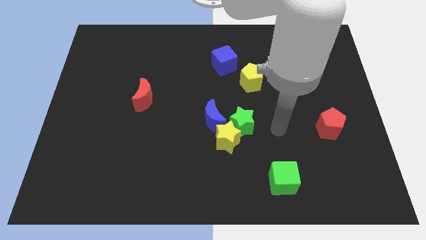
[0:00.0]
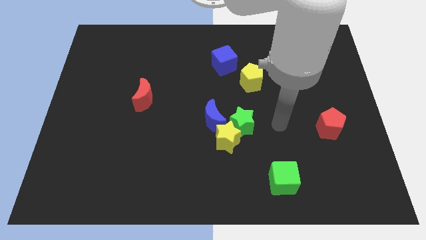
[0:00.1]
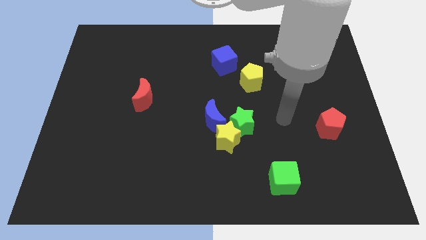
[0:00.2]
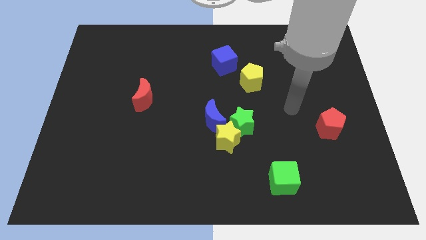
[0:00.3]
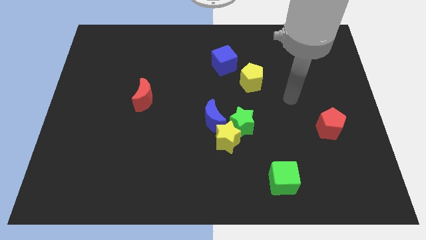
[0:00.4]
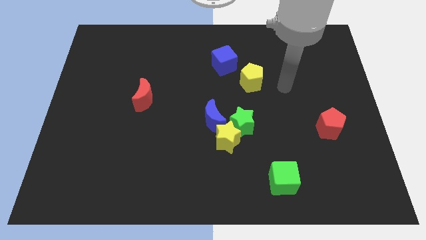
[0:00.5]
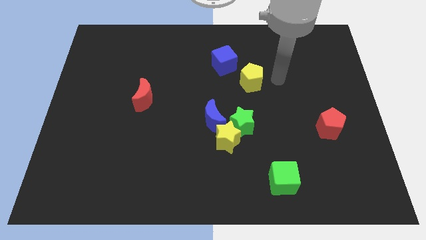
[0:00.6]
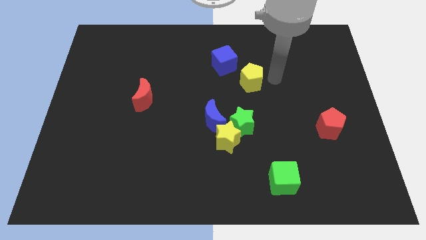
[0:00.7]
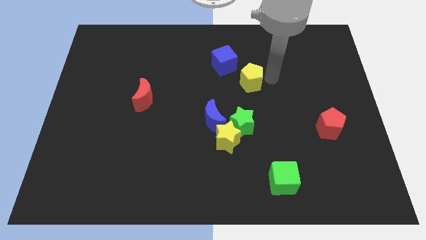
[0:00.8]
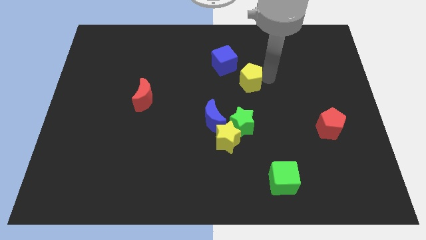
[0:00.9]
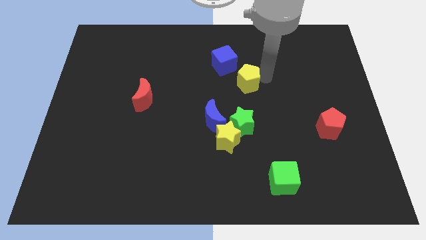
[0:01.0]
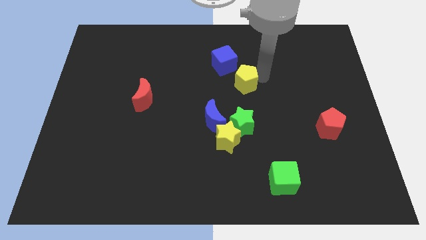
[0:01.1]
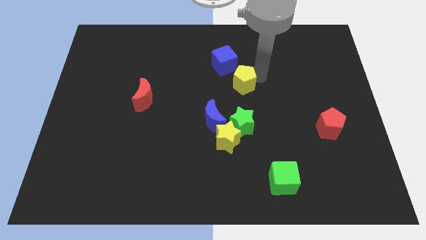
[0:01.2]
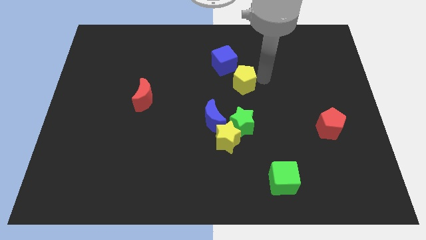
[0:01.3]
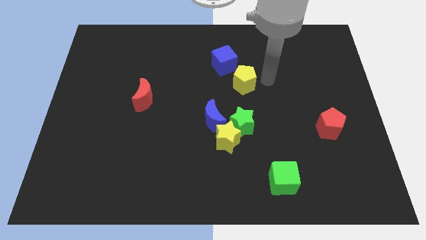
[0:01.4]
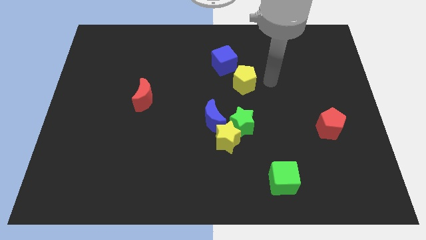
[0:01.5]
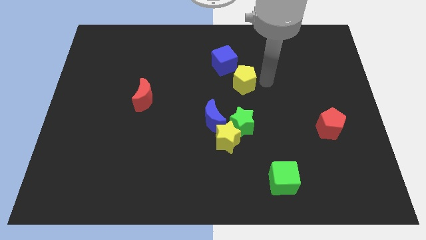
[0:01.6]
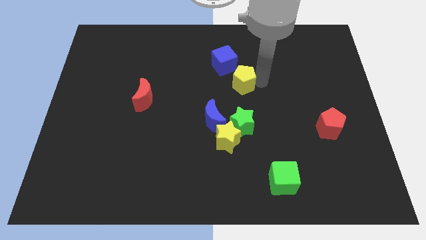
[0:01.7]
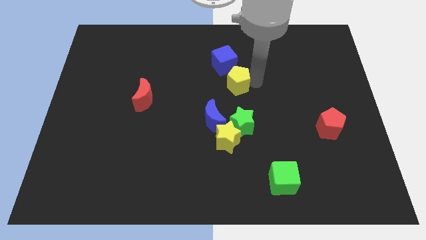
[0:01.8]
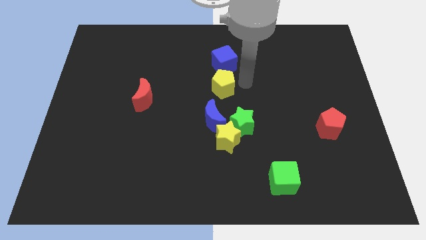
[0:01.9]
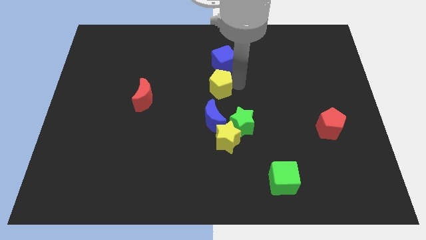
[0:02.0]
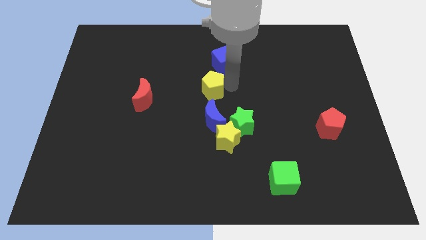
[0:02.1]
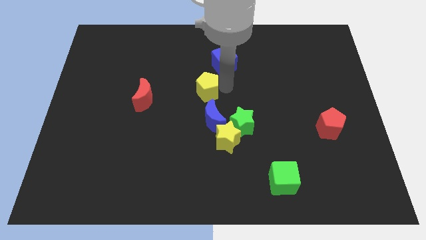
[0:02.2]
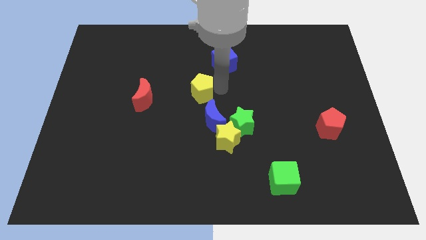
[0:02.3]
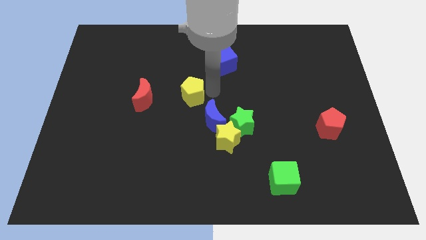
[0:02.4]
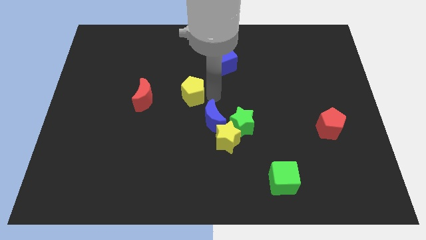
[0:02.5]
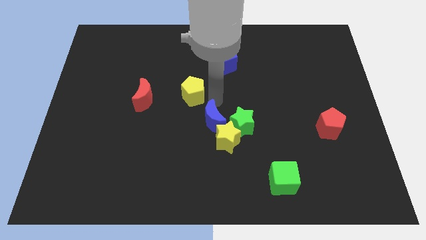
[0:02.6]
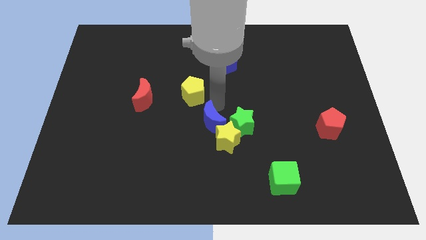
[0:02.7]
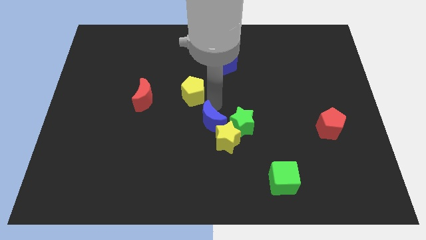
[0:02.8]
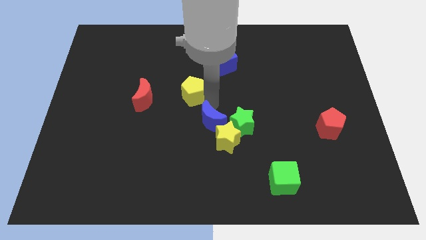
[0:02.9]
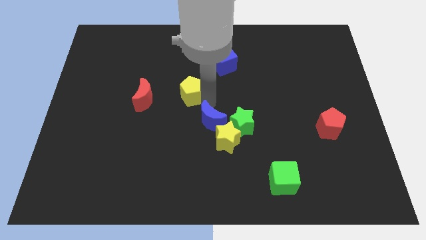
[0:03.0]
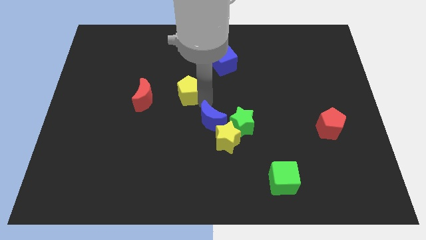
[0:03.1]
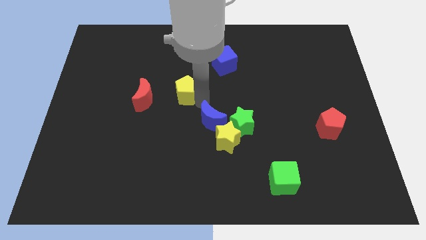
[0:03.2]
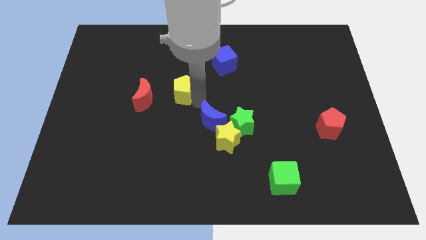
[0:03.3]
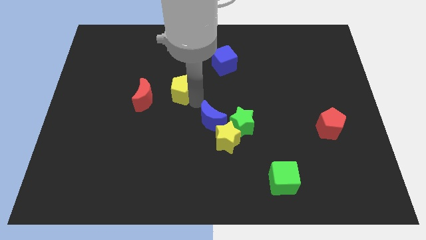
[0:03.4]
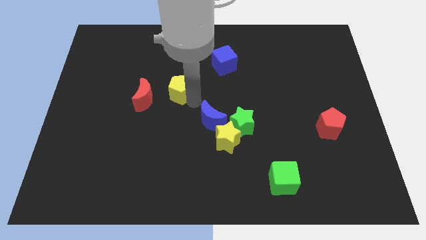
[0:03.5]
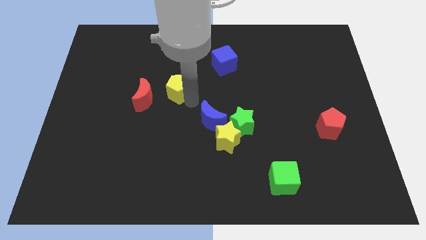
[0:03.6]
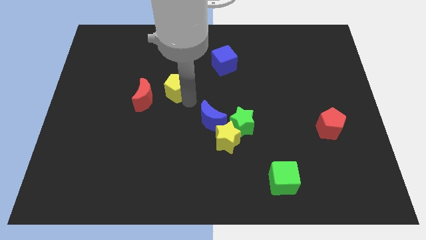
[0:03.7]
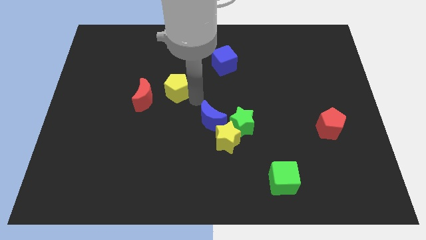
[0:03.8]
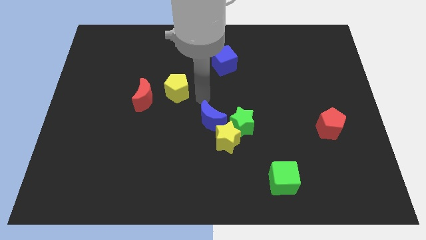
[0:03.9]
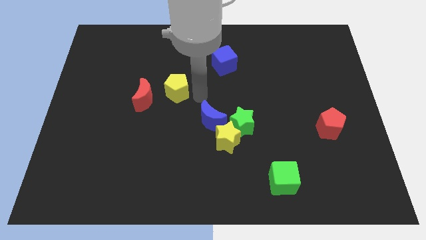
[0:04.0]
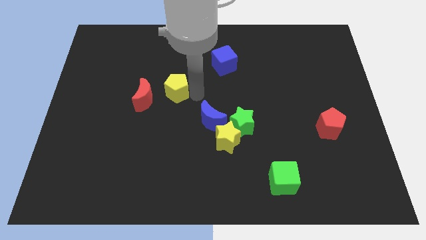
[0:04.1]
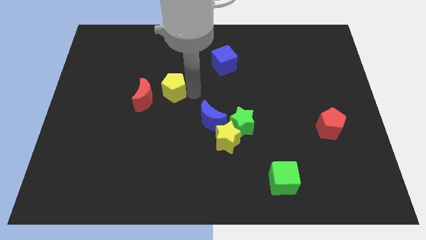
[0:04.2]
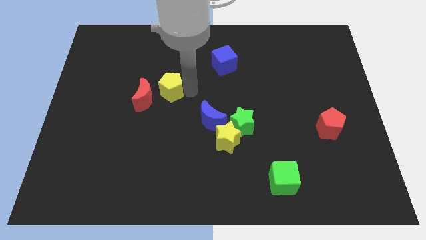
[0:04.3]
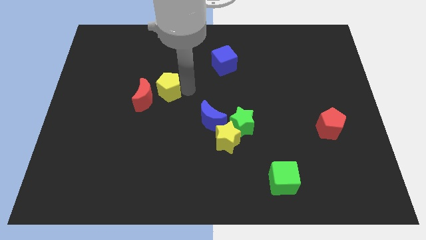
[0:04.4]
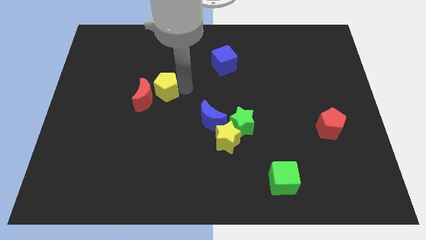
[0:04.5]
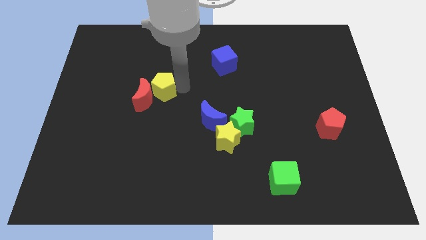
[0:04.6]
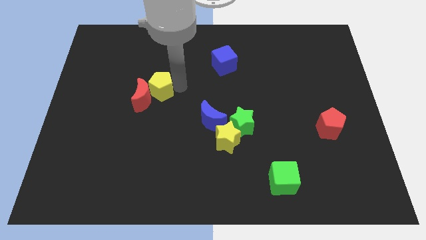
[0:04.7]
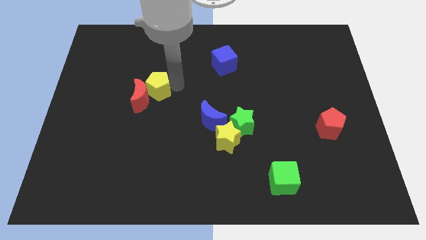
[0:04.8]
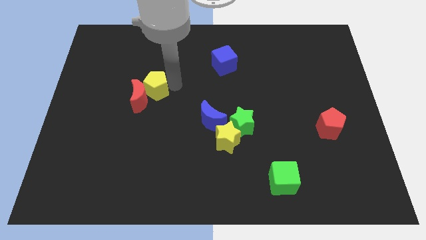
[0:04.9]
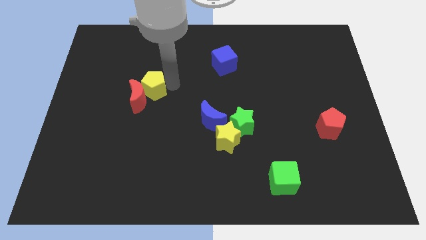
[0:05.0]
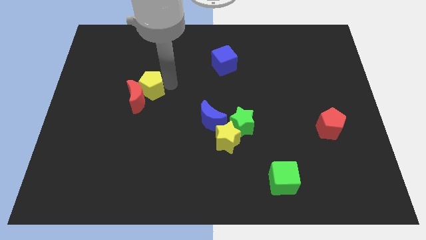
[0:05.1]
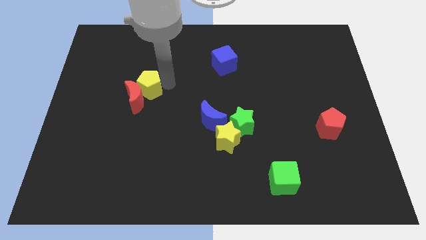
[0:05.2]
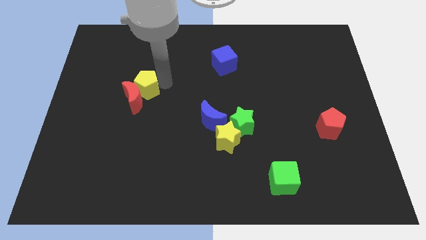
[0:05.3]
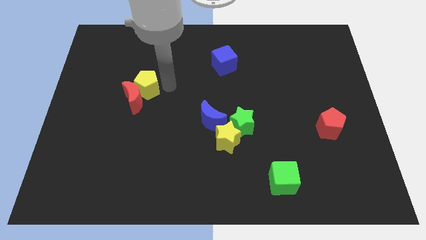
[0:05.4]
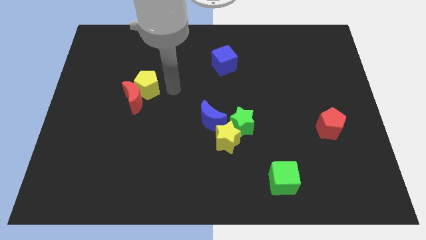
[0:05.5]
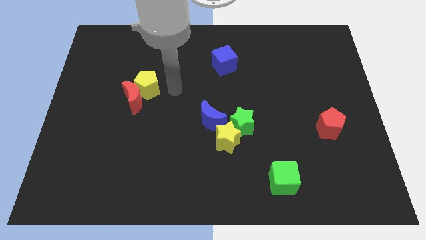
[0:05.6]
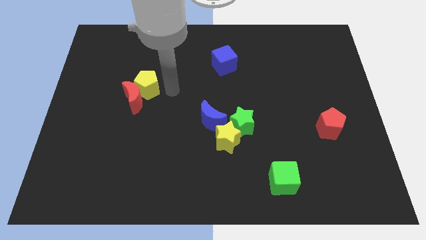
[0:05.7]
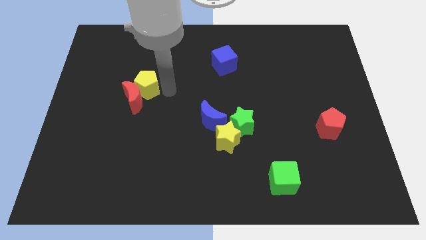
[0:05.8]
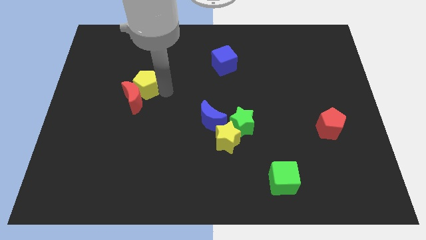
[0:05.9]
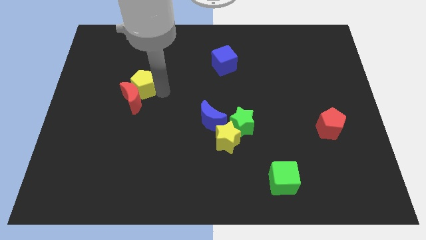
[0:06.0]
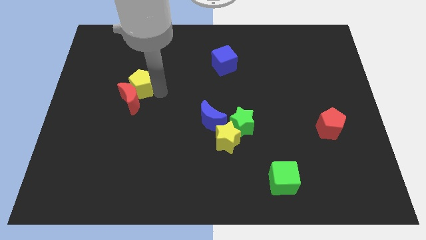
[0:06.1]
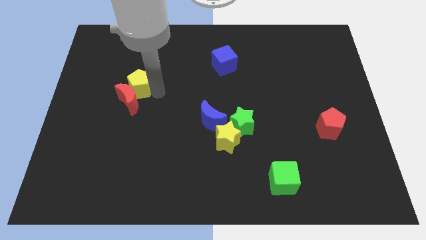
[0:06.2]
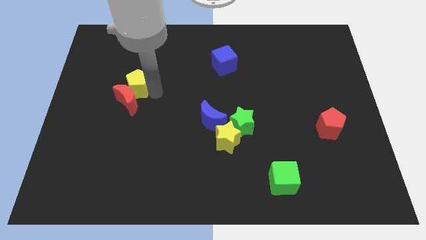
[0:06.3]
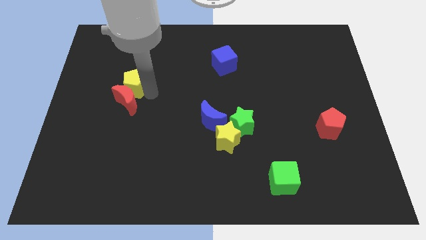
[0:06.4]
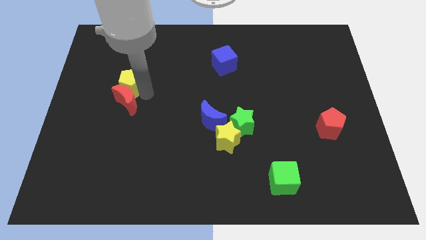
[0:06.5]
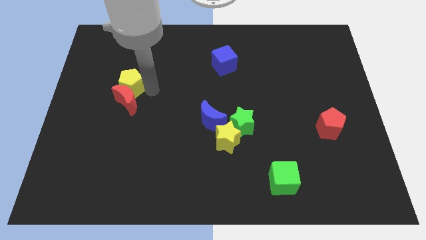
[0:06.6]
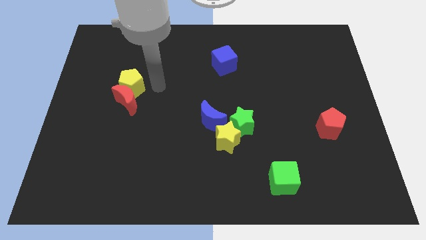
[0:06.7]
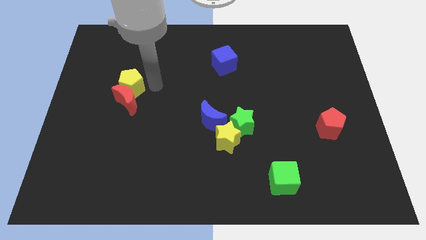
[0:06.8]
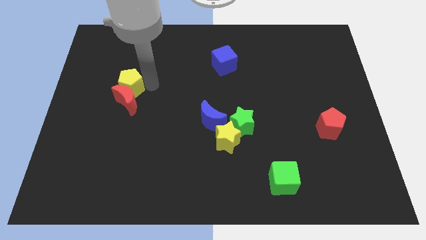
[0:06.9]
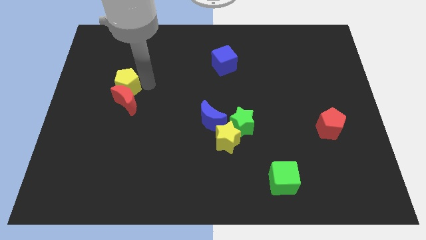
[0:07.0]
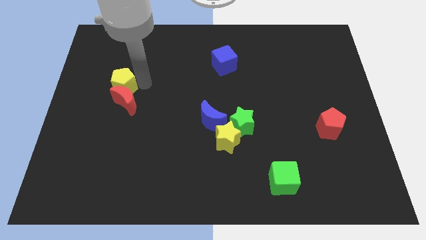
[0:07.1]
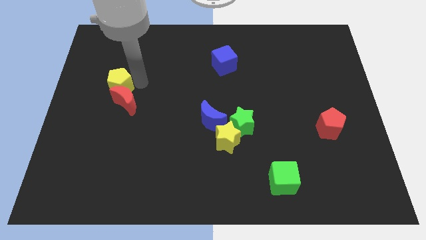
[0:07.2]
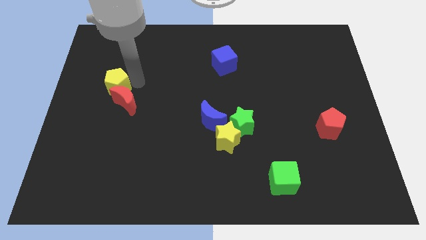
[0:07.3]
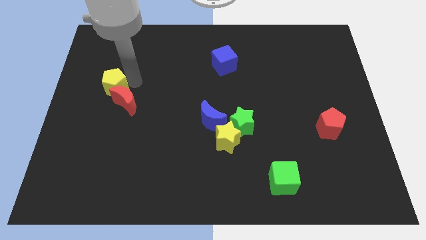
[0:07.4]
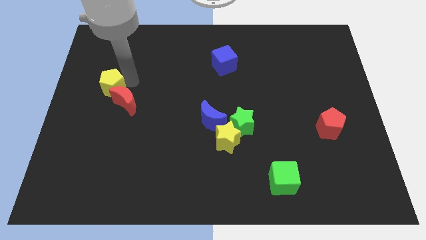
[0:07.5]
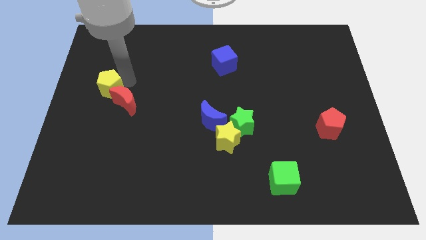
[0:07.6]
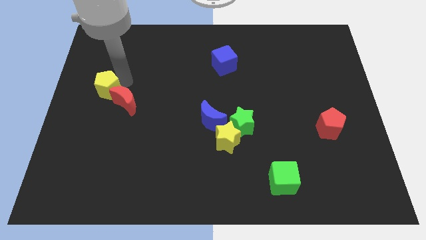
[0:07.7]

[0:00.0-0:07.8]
push the yellow pentagon to the left side
